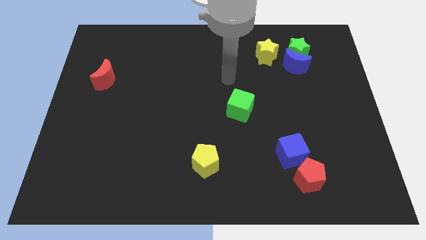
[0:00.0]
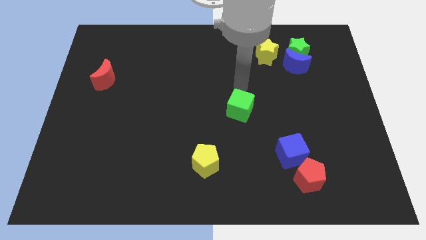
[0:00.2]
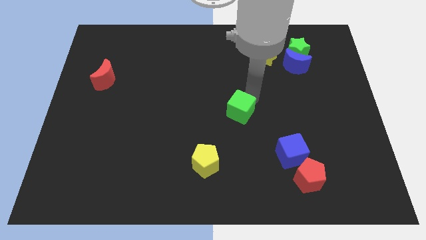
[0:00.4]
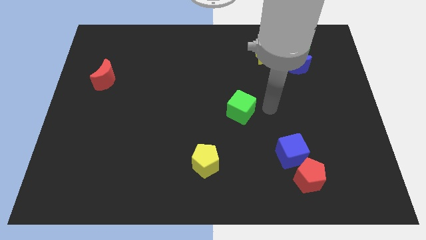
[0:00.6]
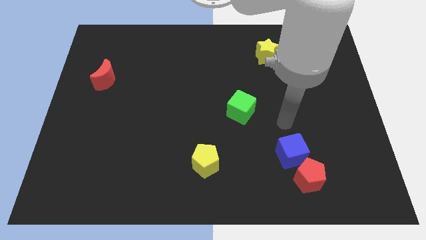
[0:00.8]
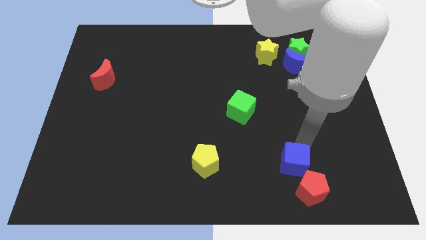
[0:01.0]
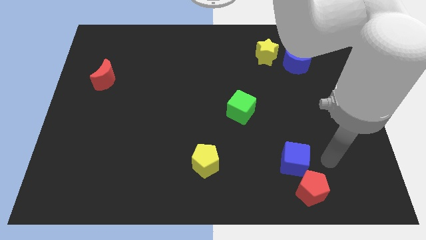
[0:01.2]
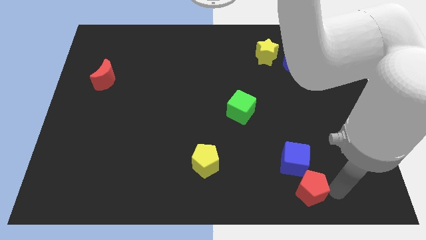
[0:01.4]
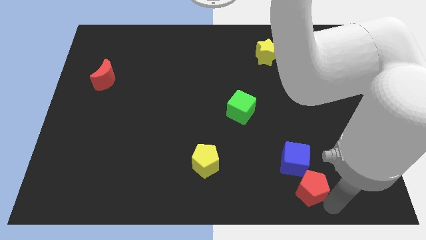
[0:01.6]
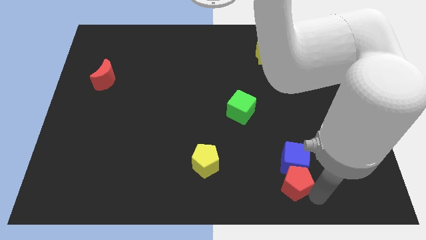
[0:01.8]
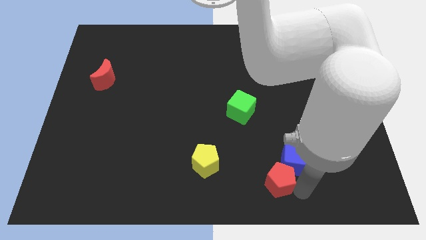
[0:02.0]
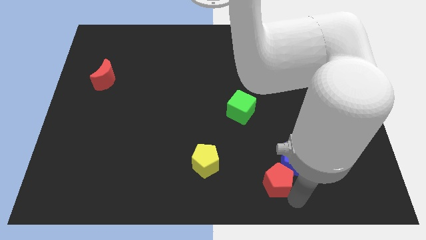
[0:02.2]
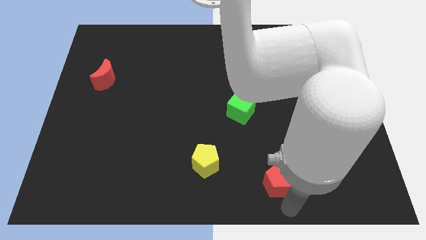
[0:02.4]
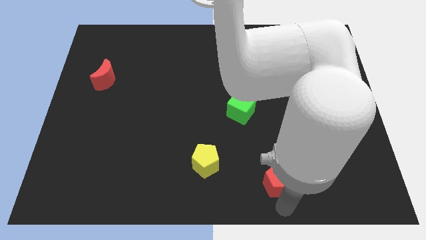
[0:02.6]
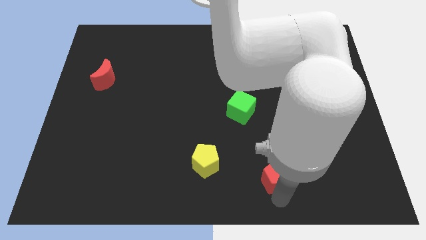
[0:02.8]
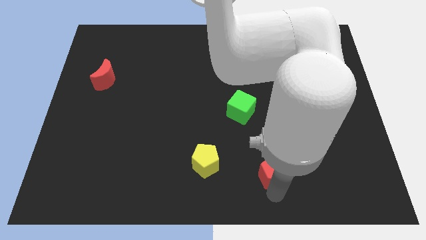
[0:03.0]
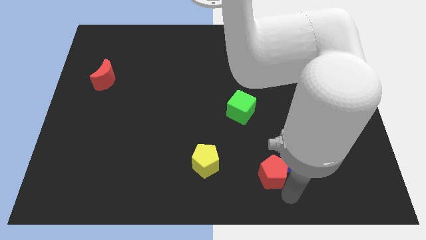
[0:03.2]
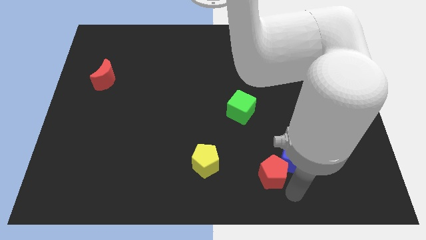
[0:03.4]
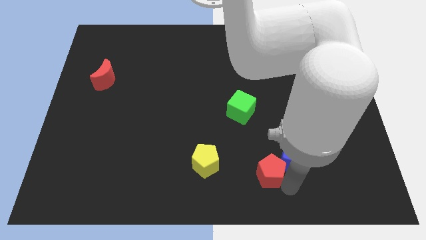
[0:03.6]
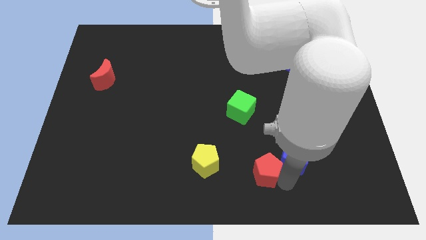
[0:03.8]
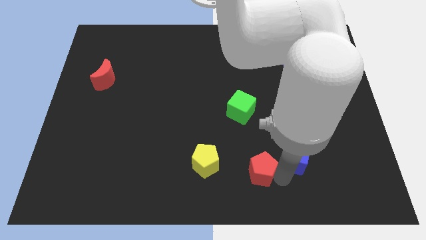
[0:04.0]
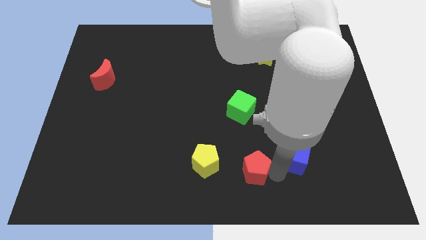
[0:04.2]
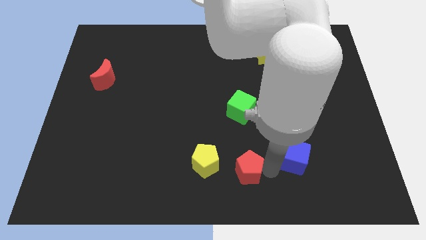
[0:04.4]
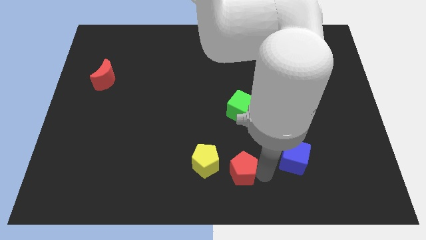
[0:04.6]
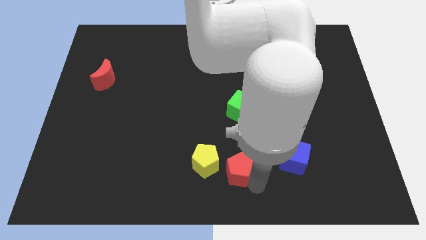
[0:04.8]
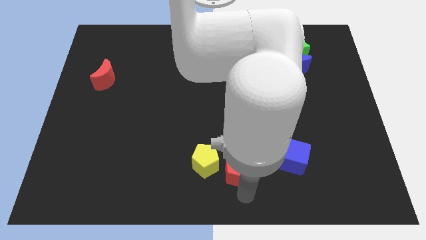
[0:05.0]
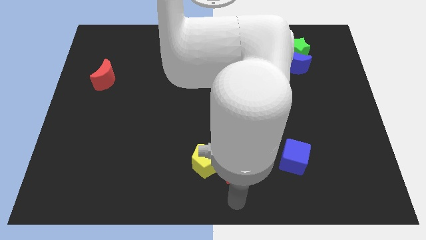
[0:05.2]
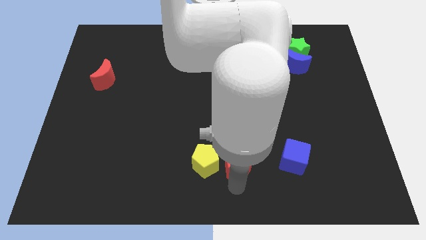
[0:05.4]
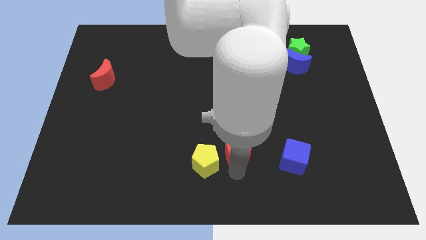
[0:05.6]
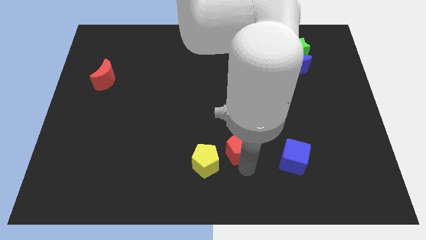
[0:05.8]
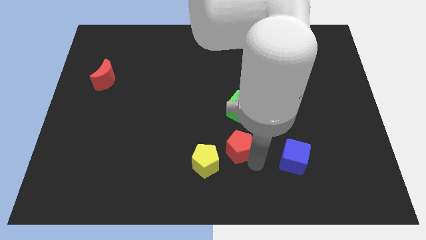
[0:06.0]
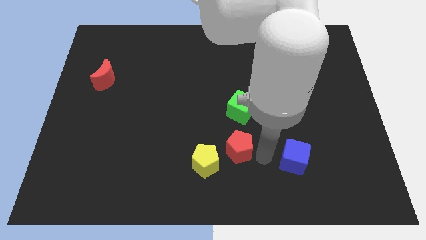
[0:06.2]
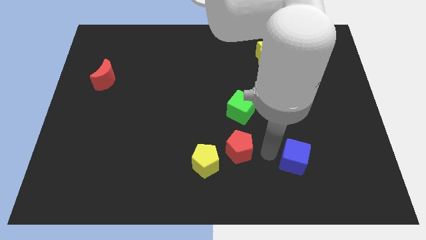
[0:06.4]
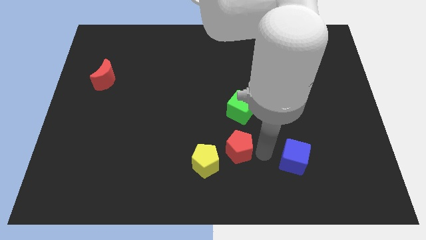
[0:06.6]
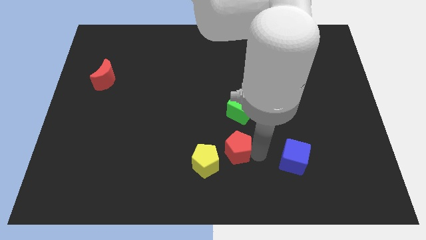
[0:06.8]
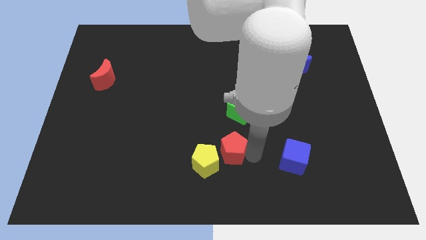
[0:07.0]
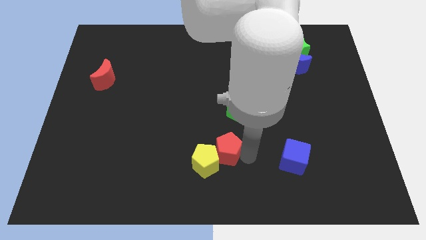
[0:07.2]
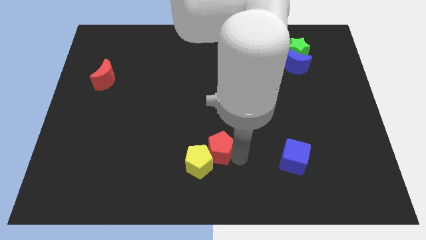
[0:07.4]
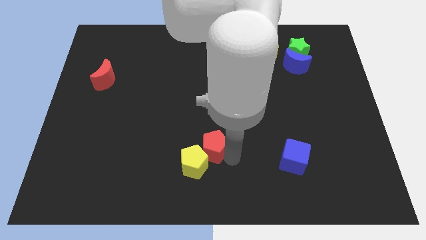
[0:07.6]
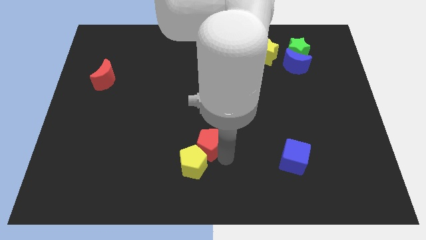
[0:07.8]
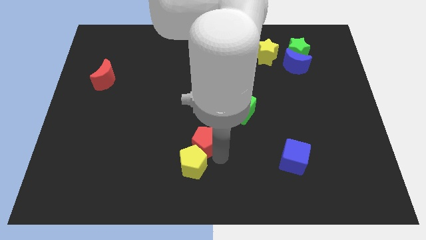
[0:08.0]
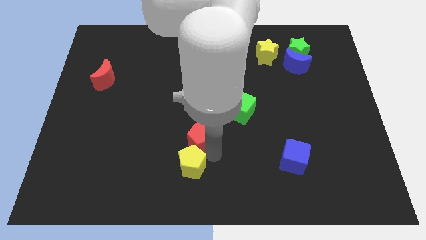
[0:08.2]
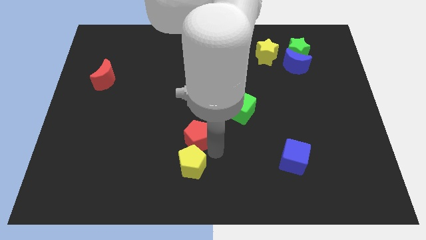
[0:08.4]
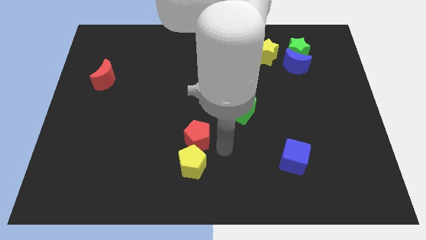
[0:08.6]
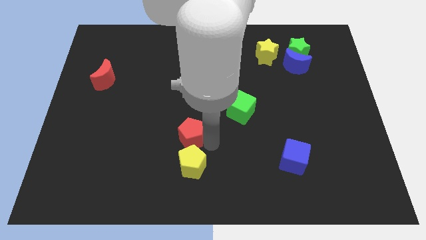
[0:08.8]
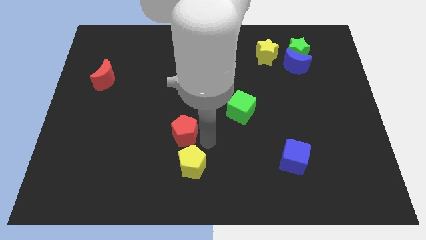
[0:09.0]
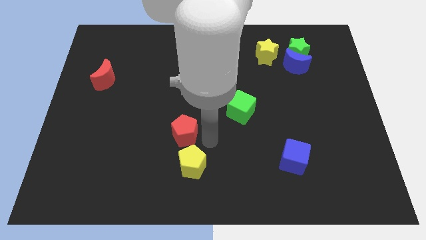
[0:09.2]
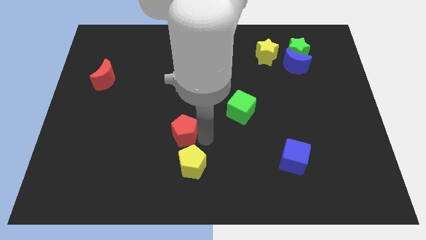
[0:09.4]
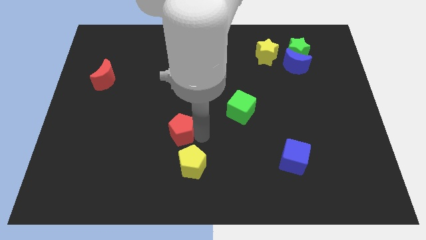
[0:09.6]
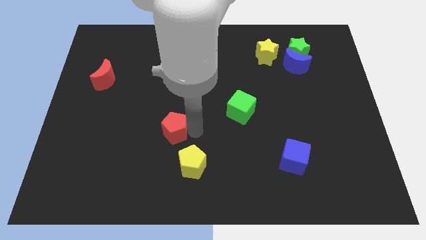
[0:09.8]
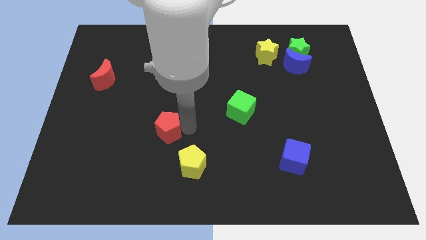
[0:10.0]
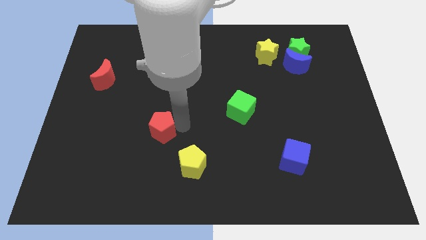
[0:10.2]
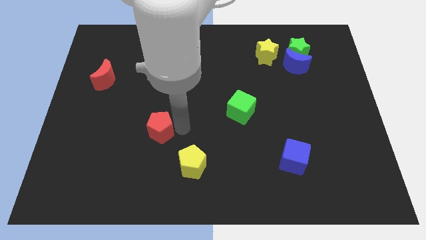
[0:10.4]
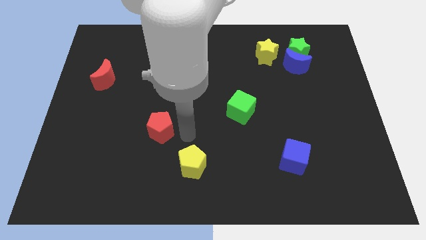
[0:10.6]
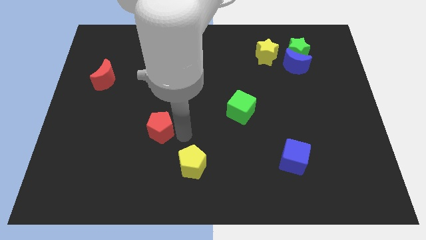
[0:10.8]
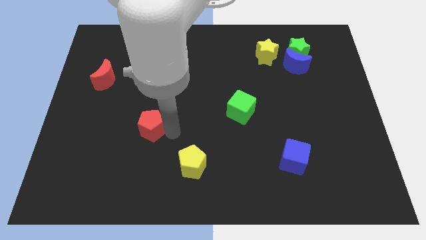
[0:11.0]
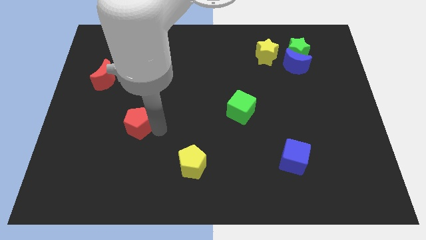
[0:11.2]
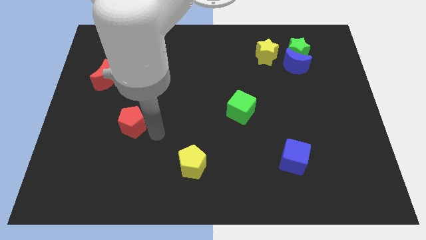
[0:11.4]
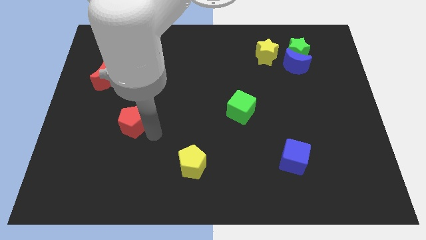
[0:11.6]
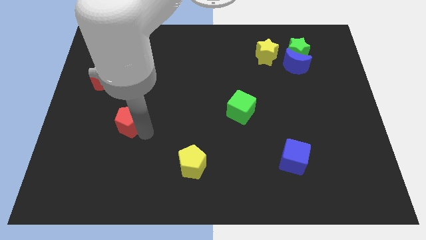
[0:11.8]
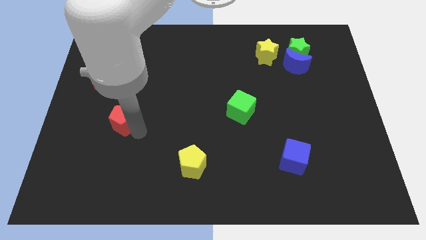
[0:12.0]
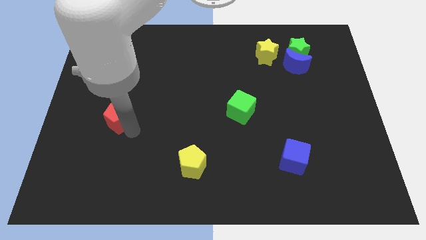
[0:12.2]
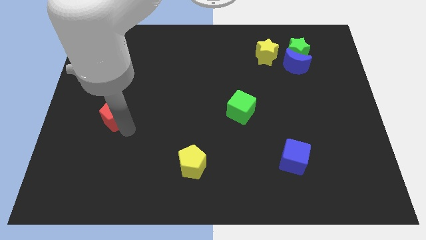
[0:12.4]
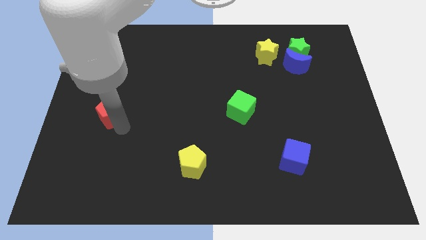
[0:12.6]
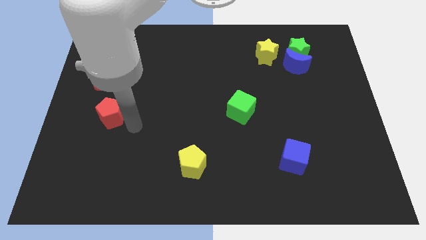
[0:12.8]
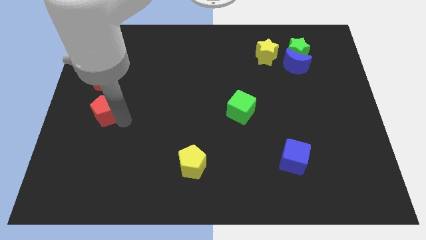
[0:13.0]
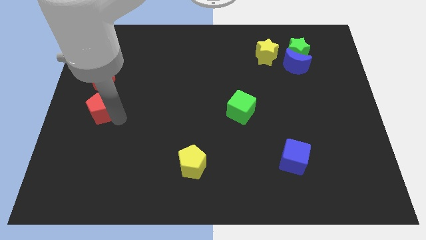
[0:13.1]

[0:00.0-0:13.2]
move the red pentagon to the center left
